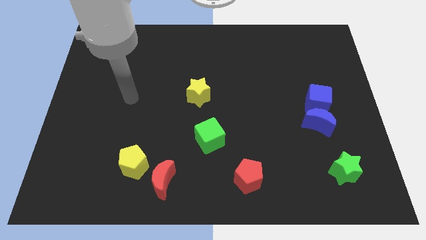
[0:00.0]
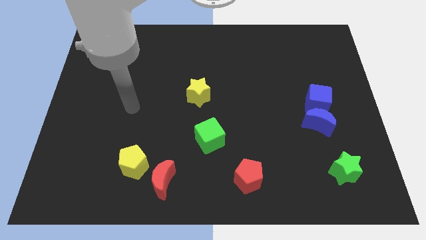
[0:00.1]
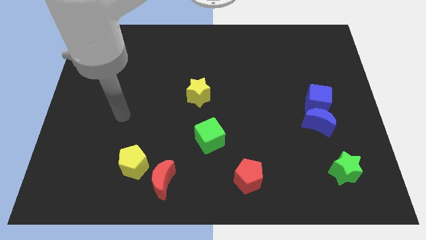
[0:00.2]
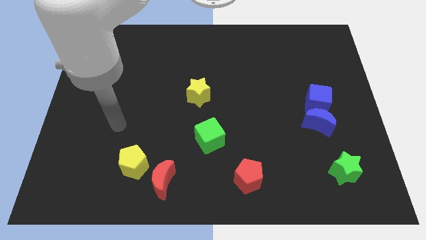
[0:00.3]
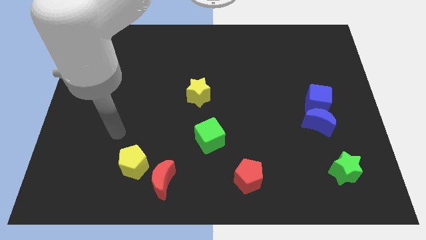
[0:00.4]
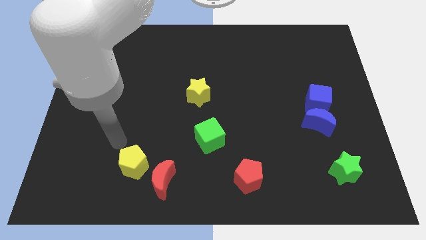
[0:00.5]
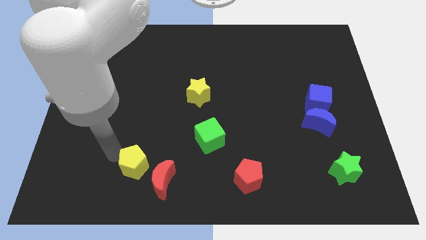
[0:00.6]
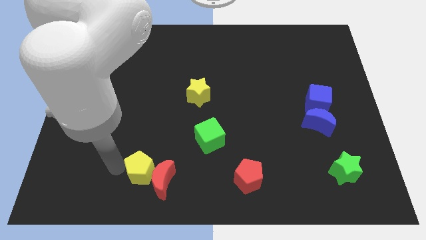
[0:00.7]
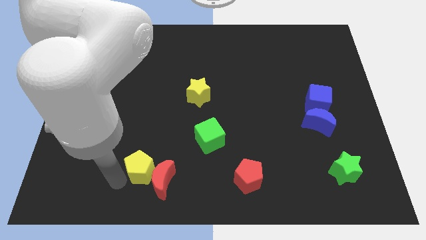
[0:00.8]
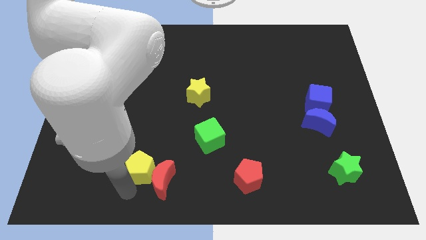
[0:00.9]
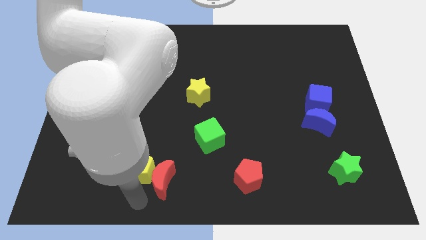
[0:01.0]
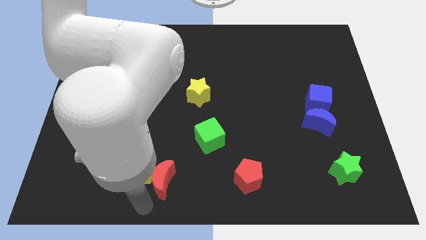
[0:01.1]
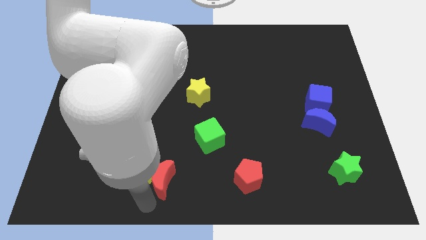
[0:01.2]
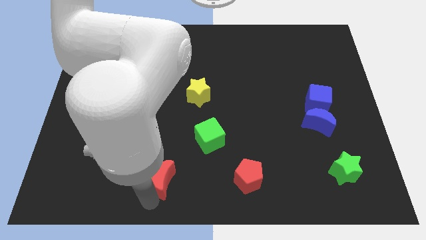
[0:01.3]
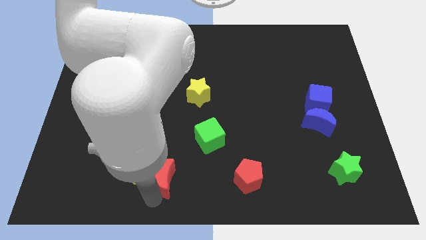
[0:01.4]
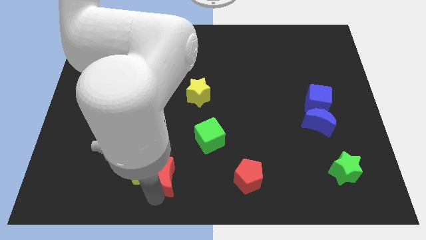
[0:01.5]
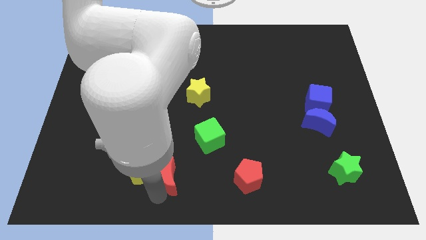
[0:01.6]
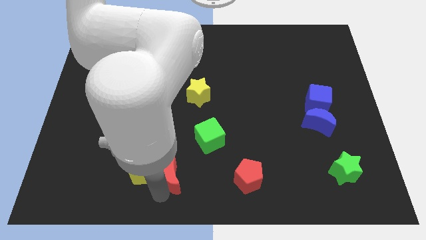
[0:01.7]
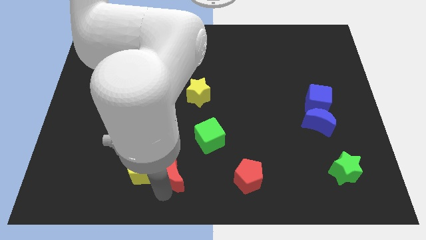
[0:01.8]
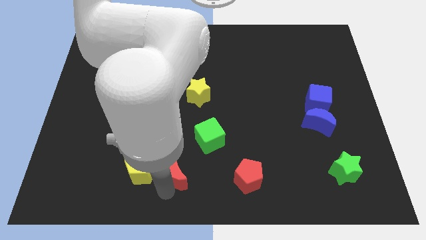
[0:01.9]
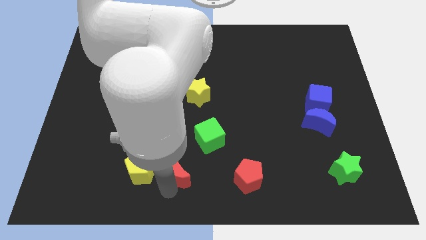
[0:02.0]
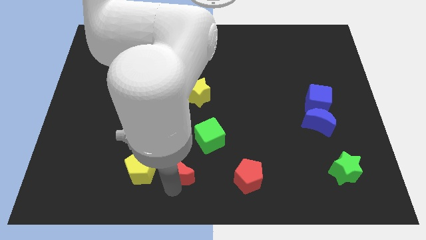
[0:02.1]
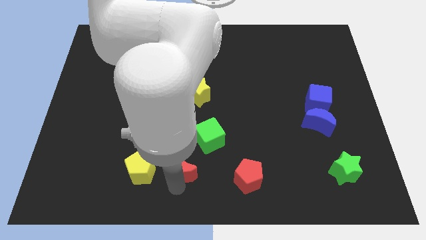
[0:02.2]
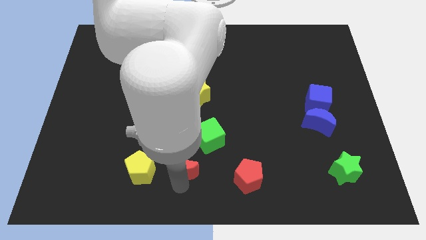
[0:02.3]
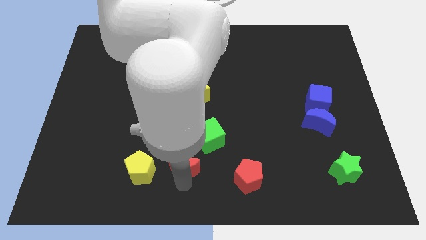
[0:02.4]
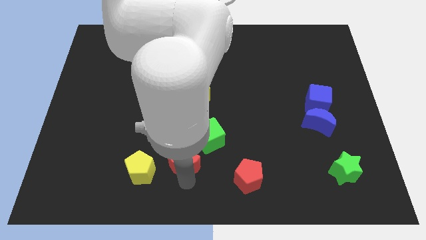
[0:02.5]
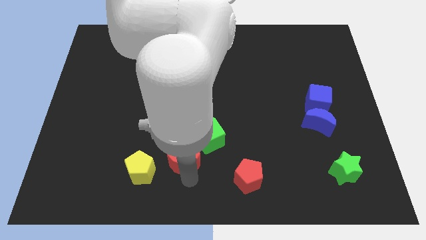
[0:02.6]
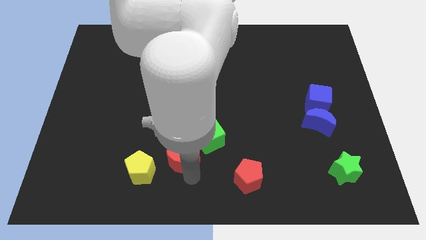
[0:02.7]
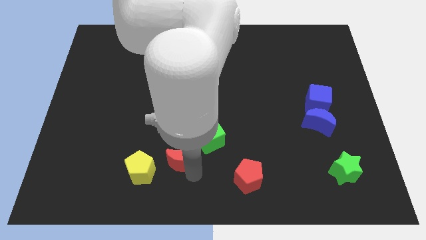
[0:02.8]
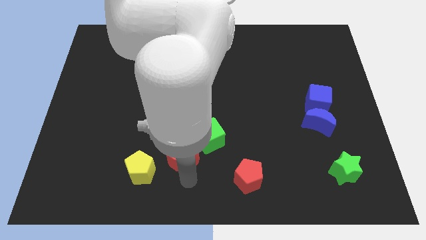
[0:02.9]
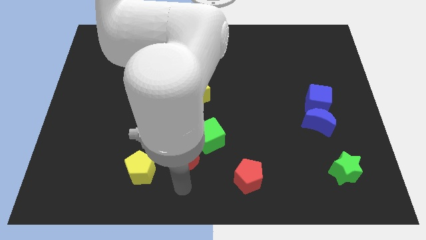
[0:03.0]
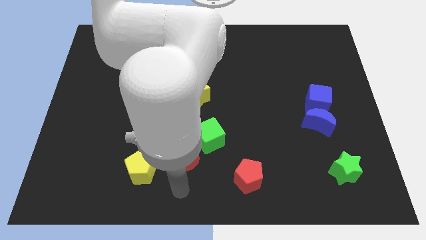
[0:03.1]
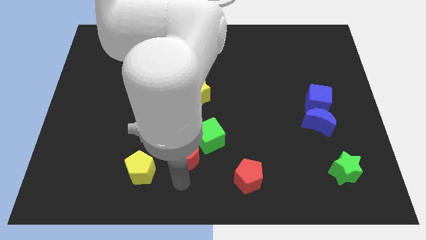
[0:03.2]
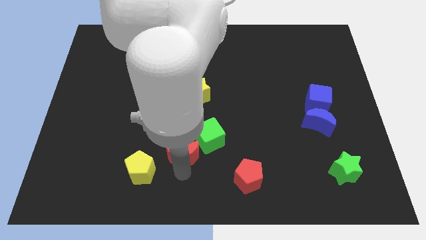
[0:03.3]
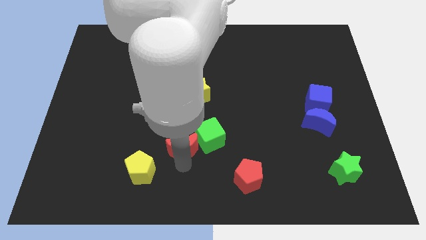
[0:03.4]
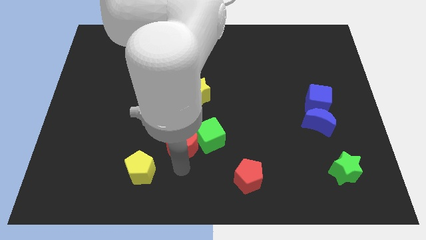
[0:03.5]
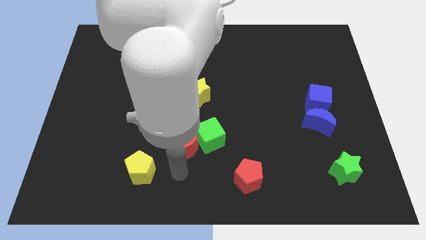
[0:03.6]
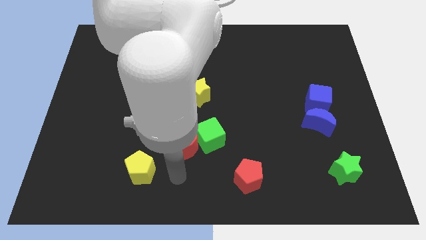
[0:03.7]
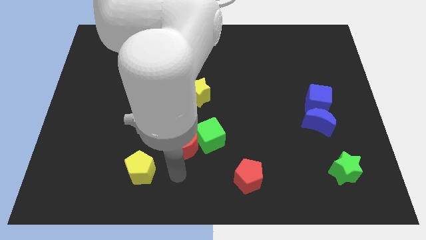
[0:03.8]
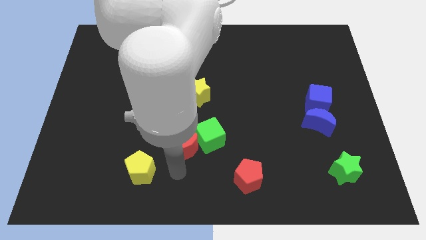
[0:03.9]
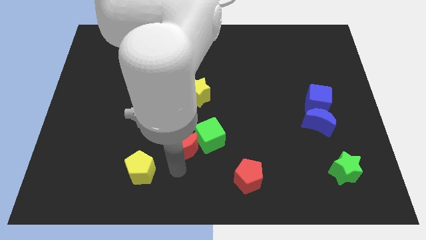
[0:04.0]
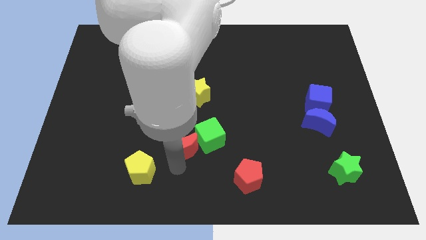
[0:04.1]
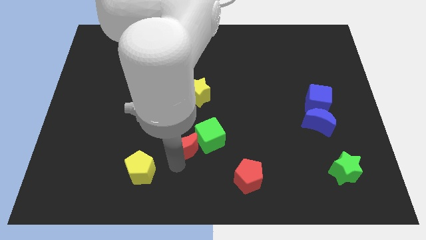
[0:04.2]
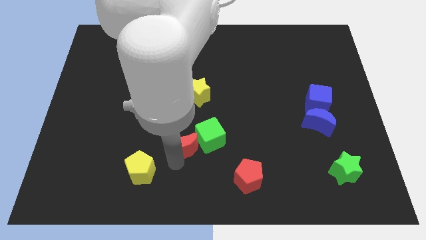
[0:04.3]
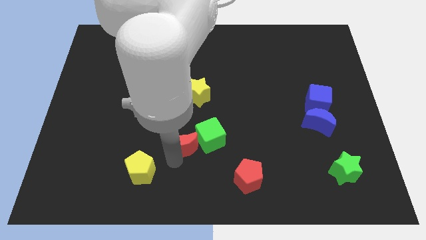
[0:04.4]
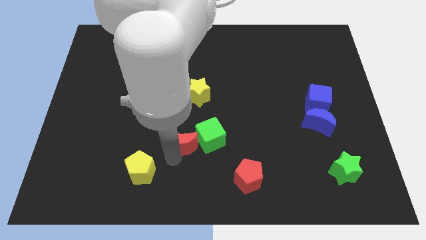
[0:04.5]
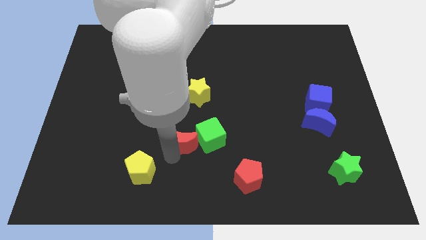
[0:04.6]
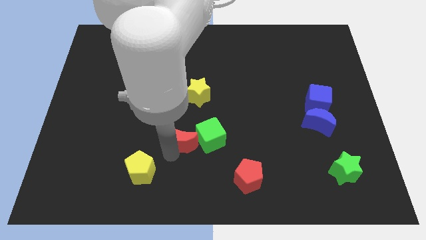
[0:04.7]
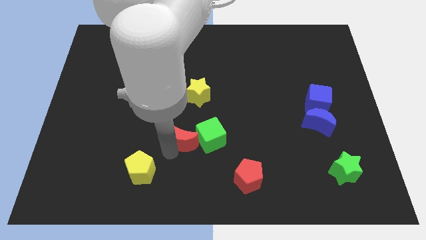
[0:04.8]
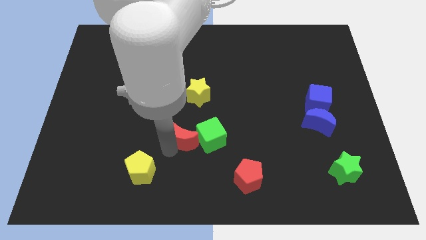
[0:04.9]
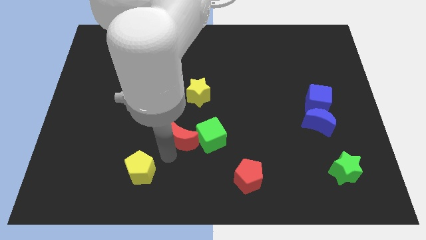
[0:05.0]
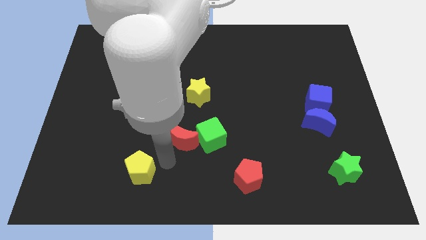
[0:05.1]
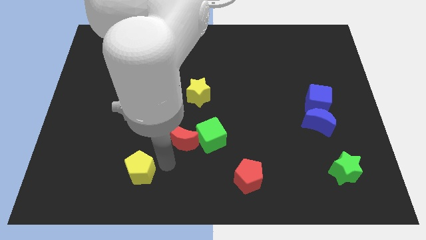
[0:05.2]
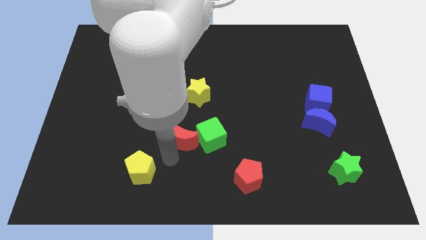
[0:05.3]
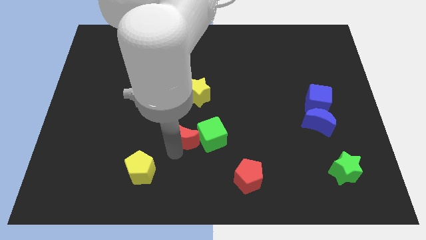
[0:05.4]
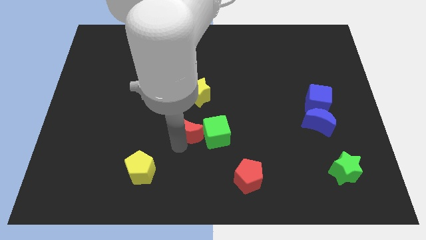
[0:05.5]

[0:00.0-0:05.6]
push the red moon to the middle
